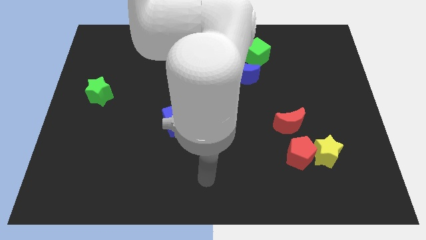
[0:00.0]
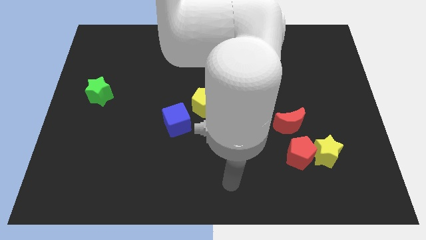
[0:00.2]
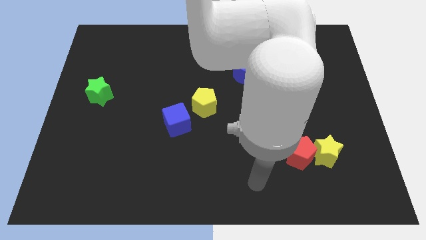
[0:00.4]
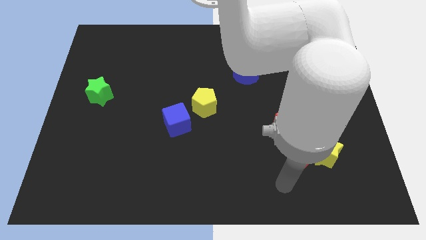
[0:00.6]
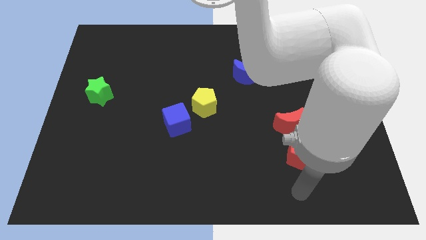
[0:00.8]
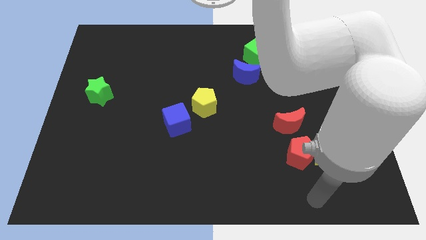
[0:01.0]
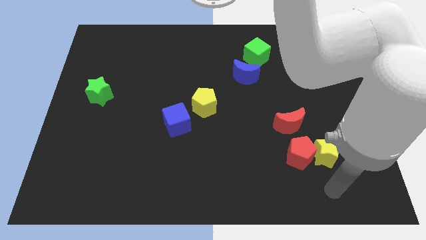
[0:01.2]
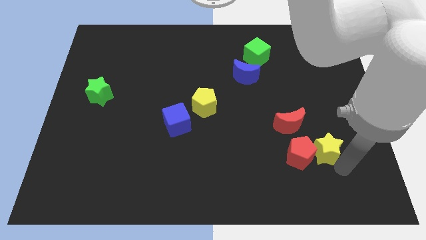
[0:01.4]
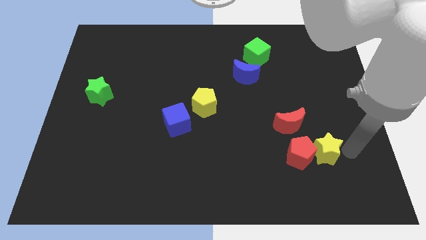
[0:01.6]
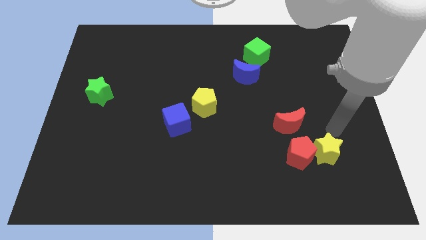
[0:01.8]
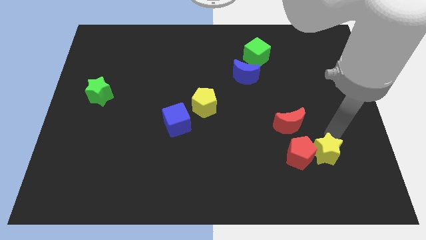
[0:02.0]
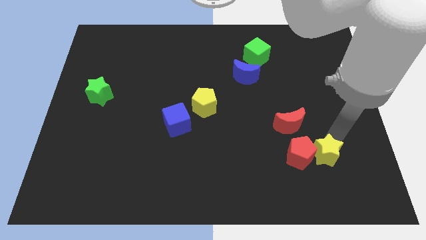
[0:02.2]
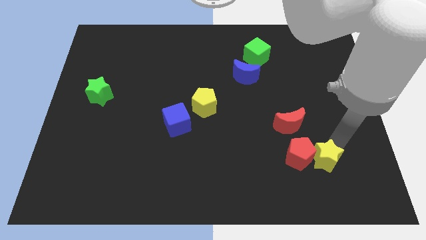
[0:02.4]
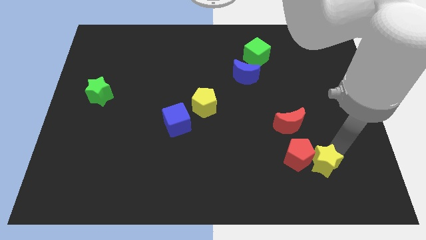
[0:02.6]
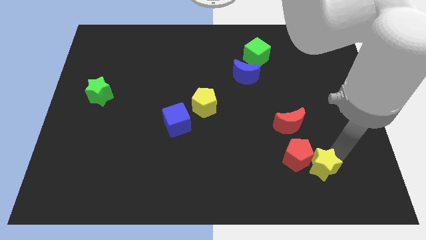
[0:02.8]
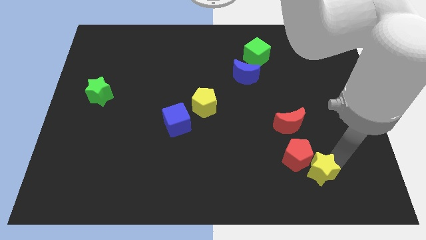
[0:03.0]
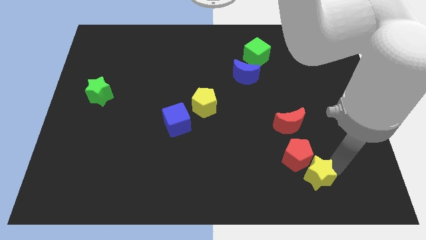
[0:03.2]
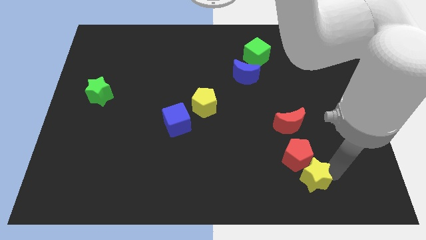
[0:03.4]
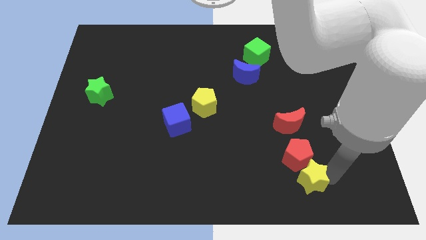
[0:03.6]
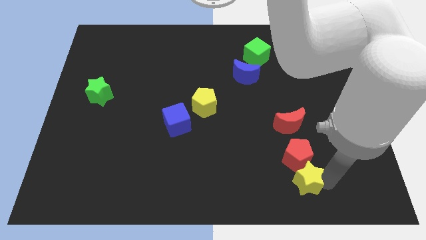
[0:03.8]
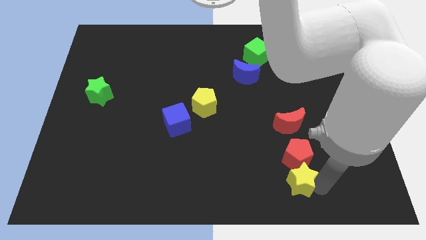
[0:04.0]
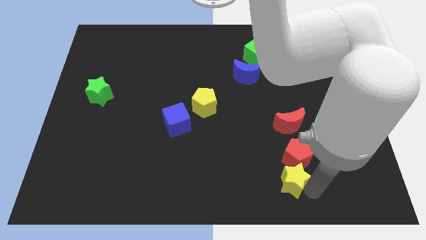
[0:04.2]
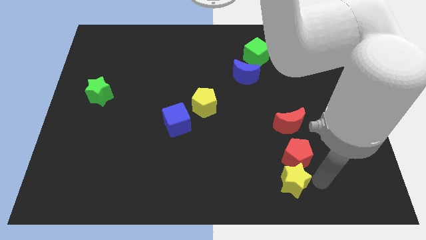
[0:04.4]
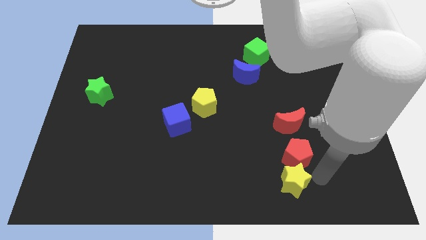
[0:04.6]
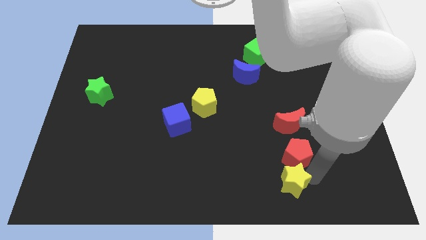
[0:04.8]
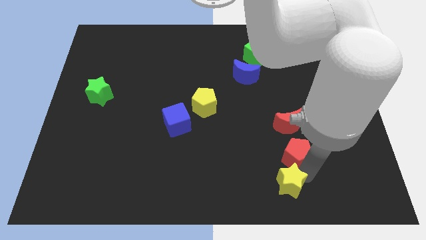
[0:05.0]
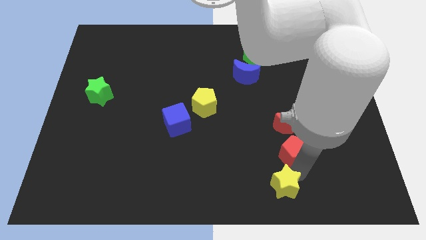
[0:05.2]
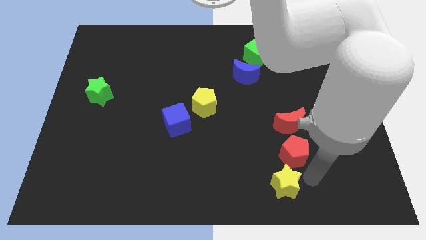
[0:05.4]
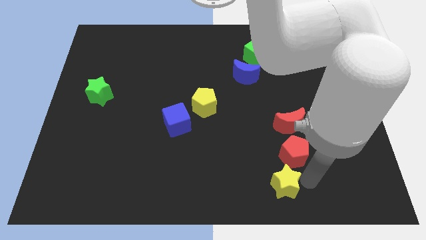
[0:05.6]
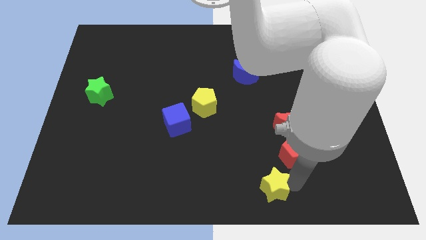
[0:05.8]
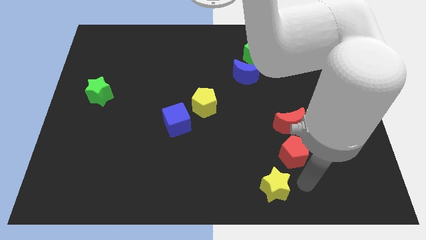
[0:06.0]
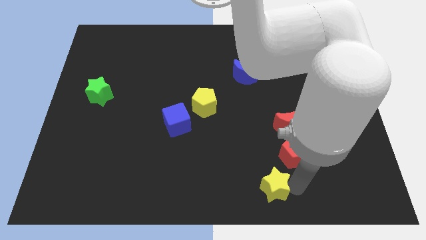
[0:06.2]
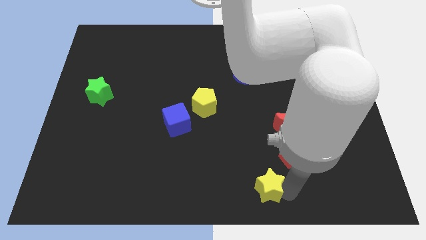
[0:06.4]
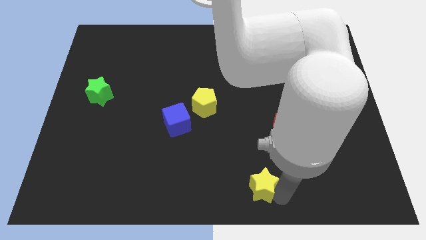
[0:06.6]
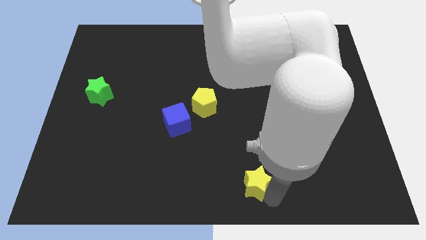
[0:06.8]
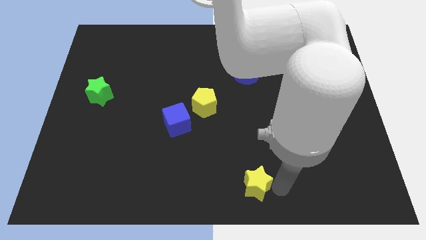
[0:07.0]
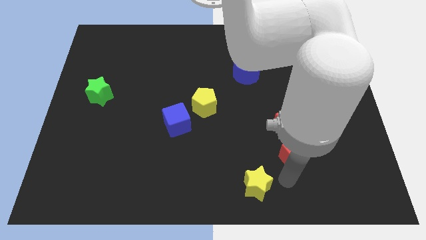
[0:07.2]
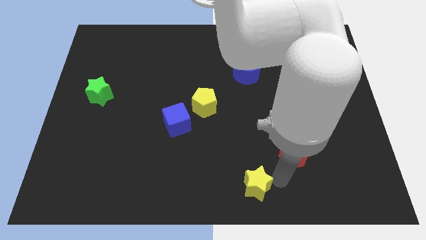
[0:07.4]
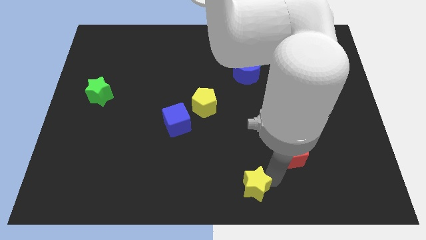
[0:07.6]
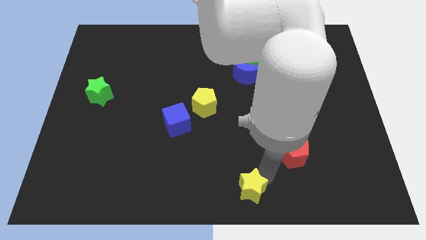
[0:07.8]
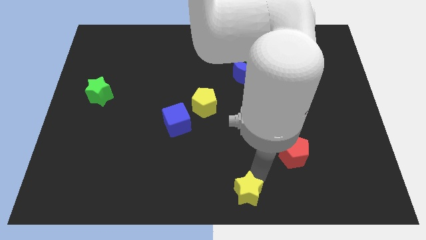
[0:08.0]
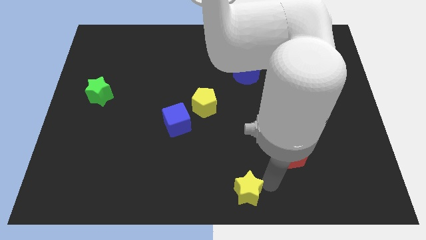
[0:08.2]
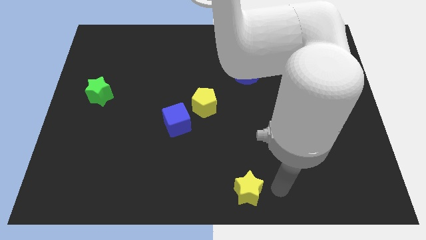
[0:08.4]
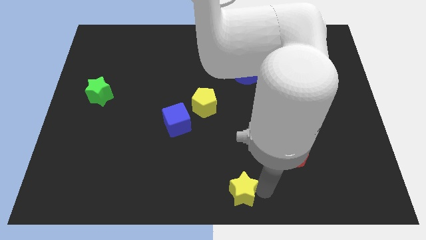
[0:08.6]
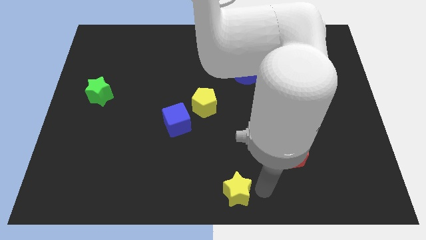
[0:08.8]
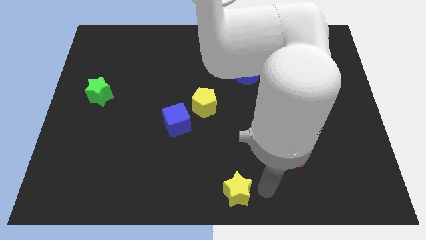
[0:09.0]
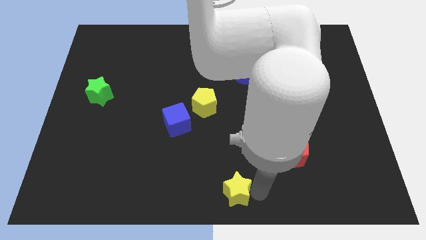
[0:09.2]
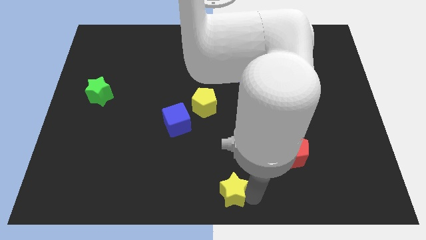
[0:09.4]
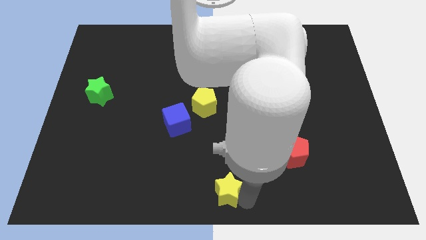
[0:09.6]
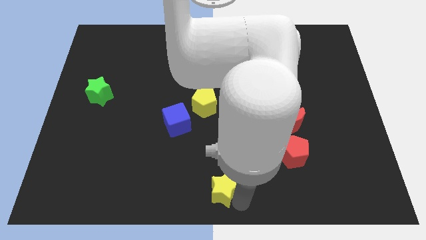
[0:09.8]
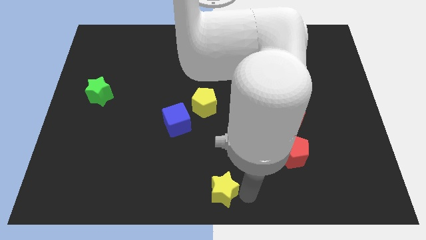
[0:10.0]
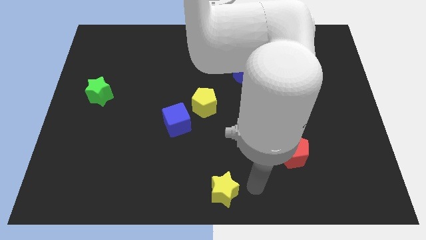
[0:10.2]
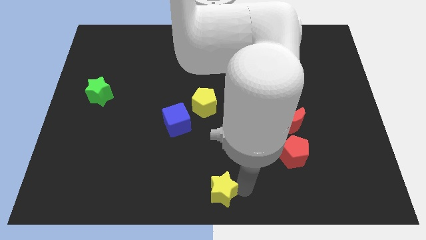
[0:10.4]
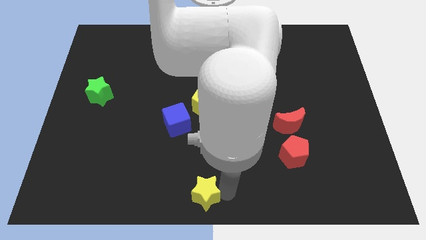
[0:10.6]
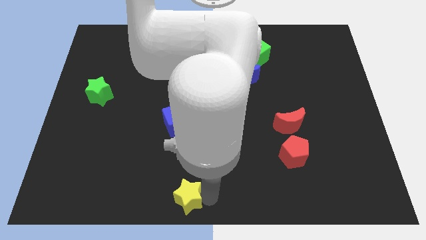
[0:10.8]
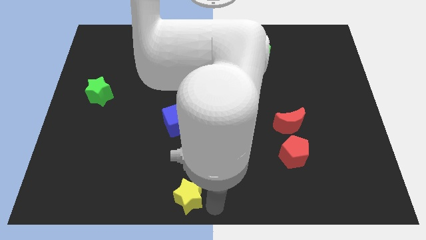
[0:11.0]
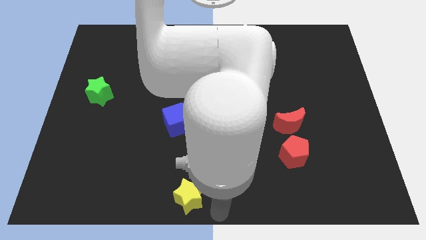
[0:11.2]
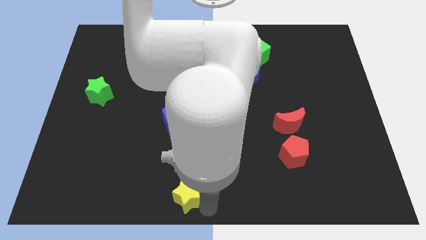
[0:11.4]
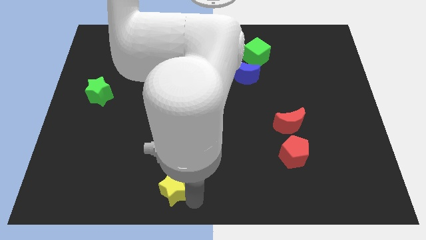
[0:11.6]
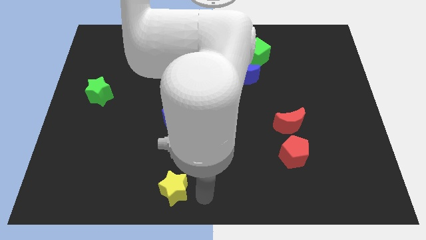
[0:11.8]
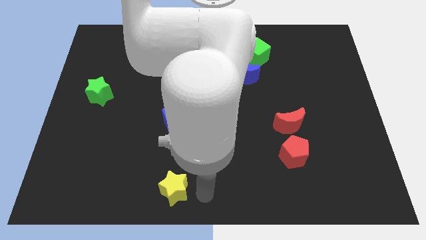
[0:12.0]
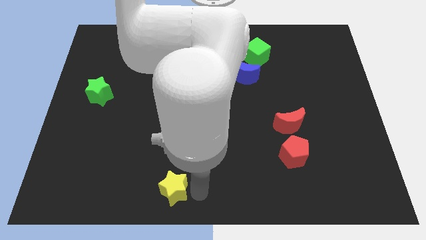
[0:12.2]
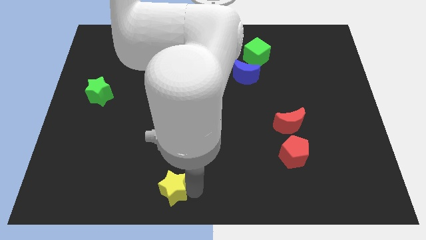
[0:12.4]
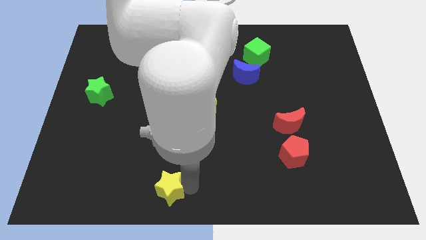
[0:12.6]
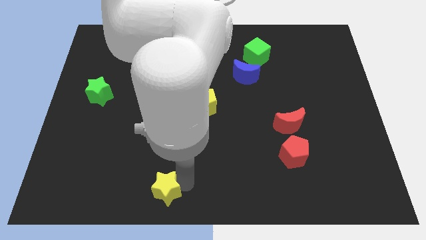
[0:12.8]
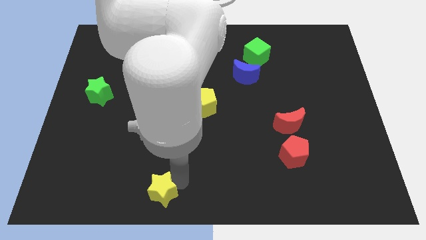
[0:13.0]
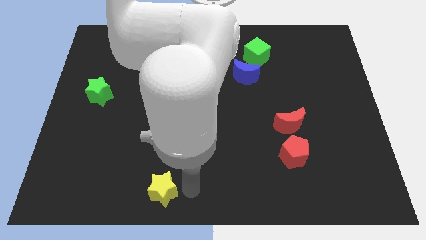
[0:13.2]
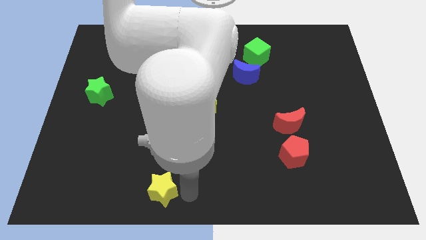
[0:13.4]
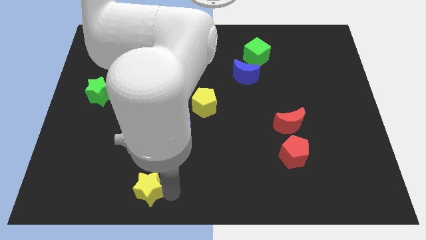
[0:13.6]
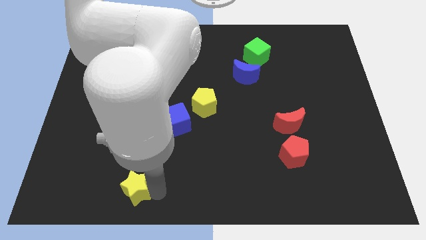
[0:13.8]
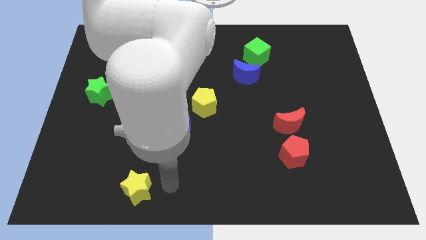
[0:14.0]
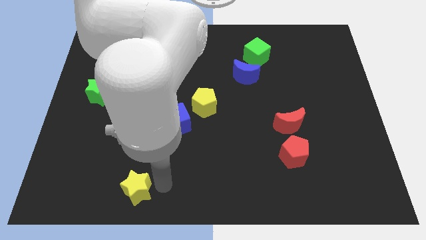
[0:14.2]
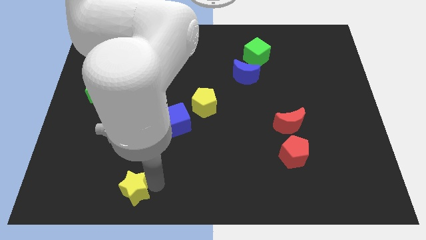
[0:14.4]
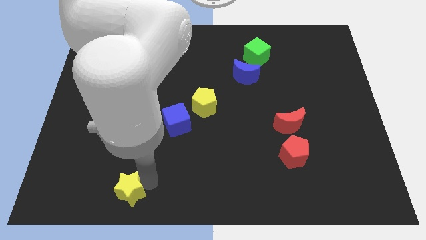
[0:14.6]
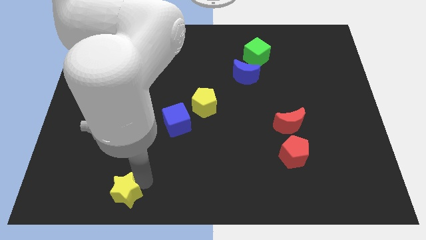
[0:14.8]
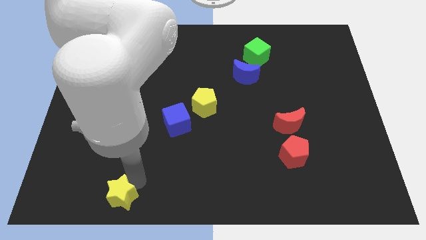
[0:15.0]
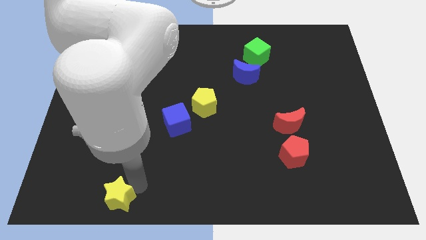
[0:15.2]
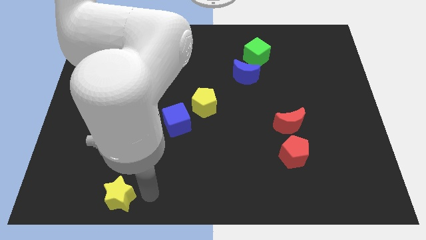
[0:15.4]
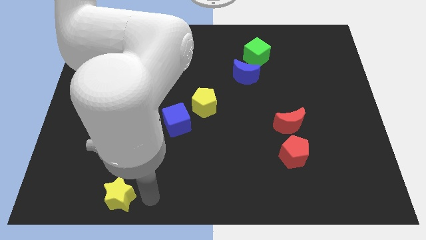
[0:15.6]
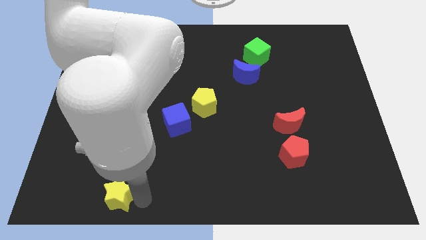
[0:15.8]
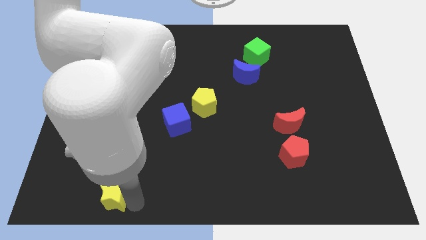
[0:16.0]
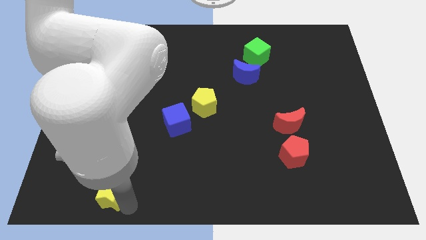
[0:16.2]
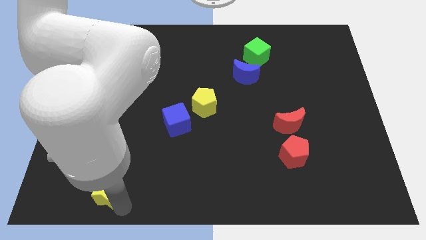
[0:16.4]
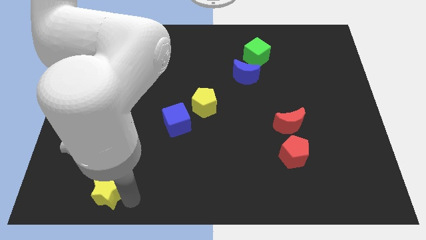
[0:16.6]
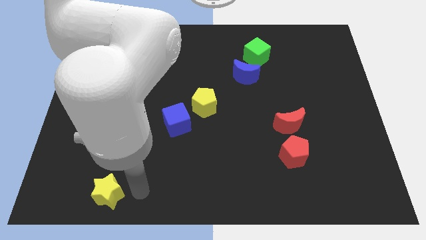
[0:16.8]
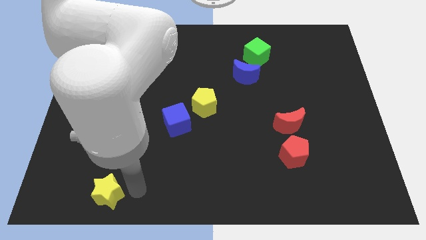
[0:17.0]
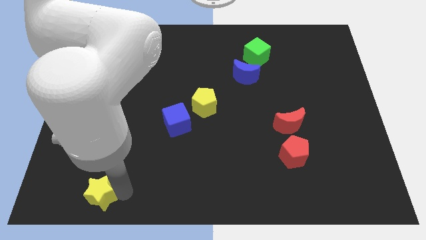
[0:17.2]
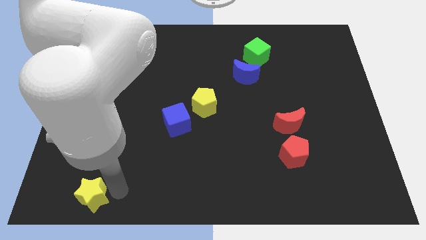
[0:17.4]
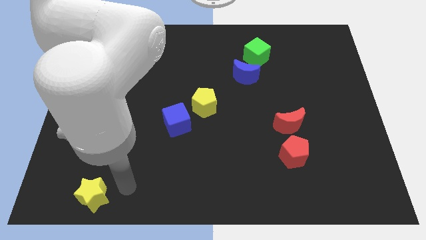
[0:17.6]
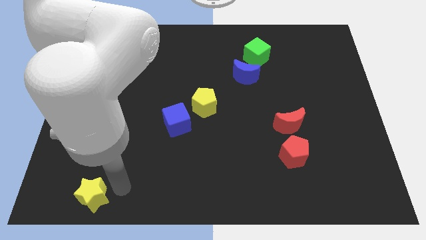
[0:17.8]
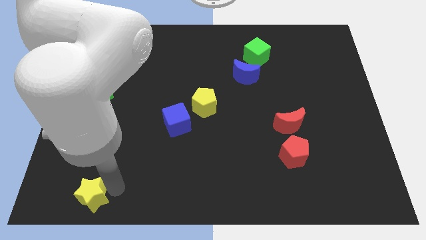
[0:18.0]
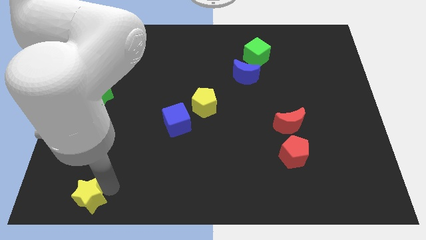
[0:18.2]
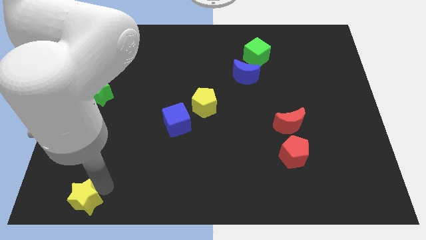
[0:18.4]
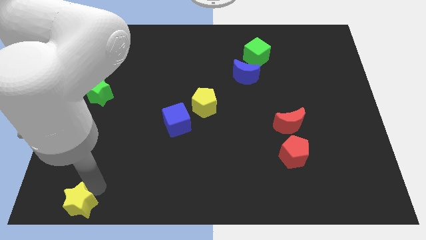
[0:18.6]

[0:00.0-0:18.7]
move the yellow star to the bottom left of the board
